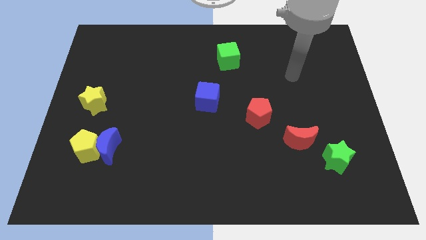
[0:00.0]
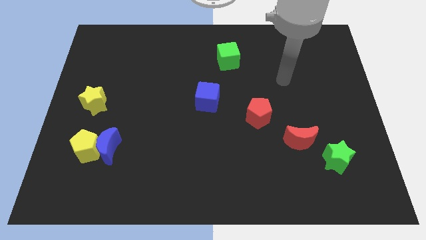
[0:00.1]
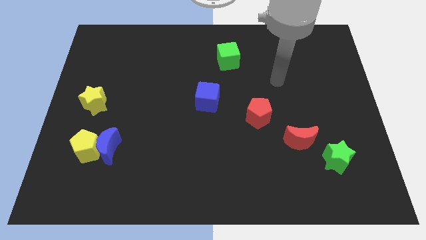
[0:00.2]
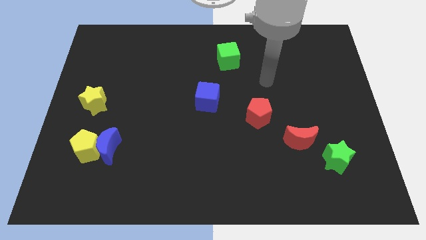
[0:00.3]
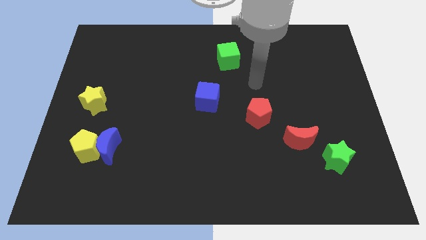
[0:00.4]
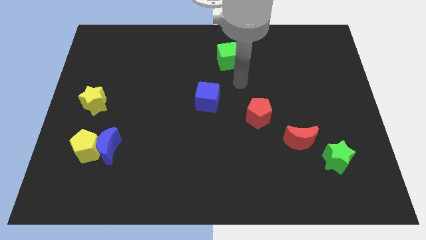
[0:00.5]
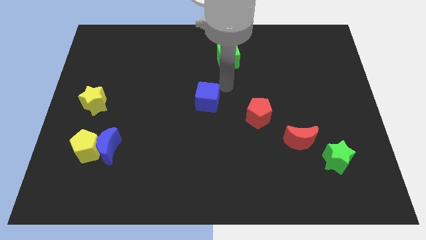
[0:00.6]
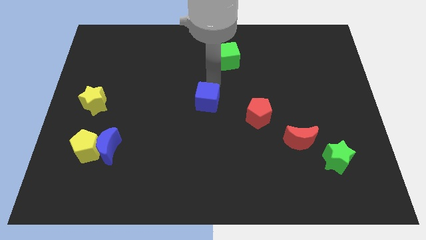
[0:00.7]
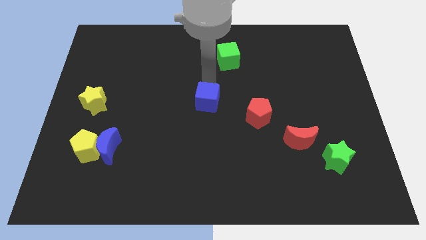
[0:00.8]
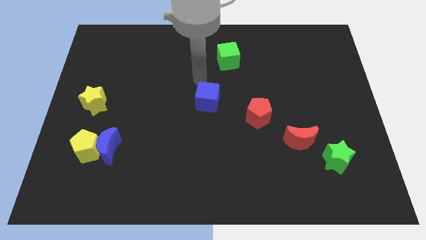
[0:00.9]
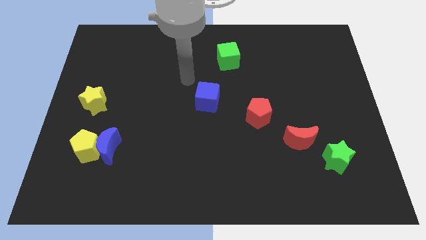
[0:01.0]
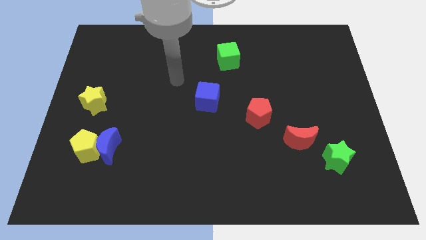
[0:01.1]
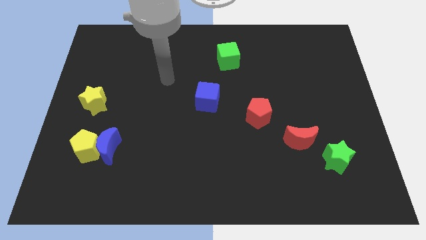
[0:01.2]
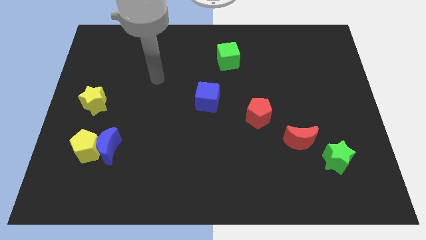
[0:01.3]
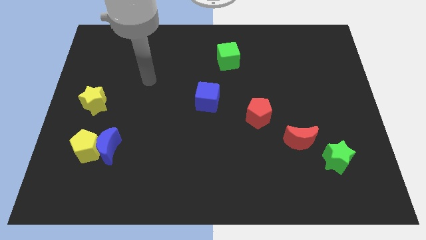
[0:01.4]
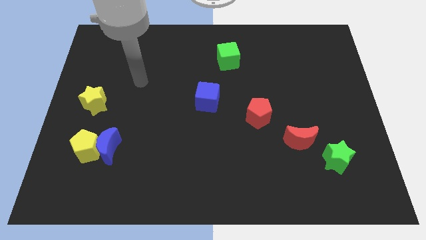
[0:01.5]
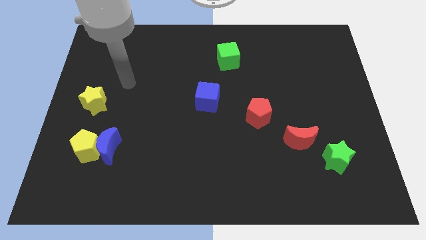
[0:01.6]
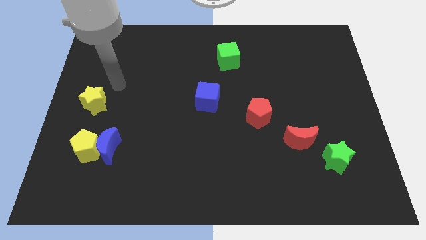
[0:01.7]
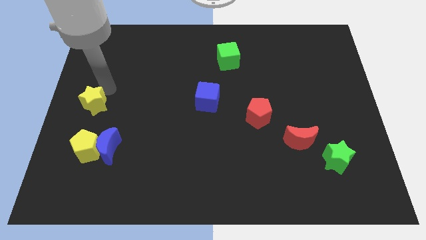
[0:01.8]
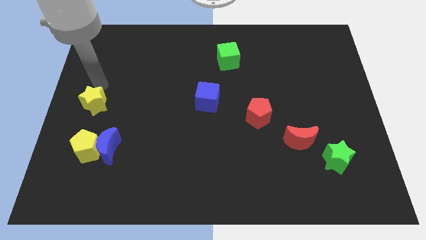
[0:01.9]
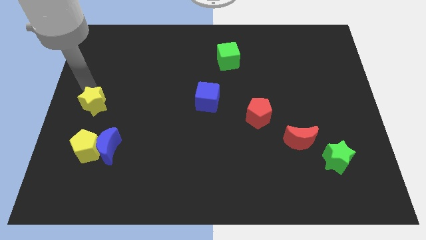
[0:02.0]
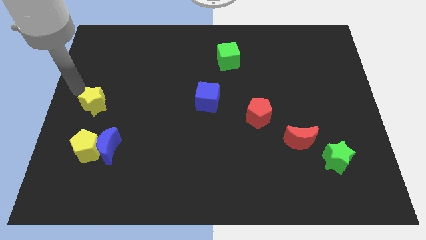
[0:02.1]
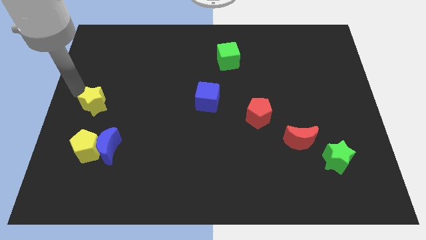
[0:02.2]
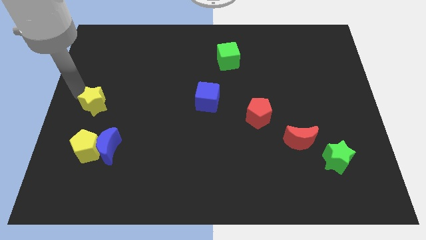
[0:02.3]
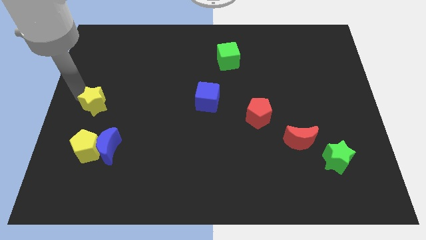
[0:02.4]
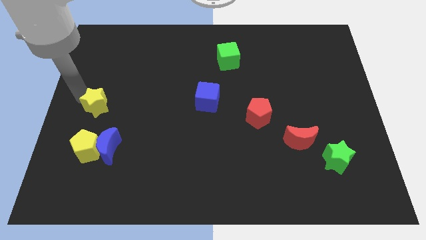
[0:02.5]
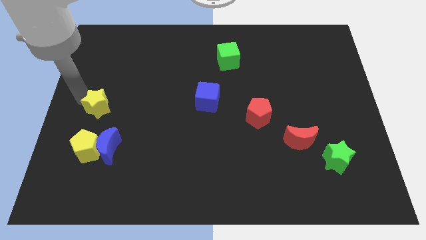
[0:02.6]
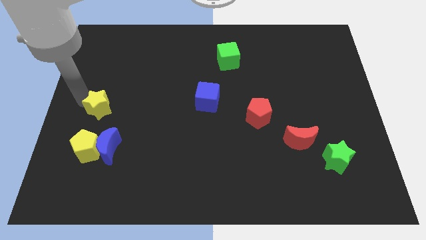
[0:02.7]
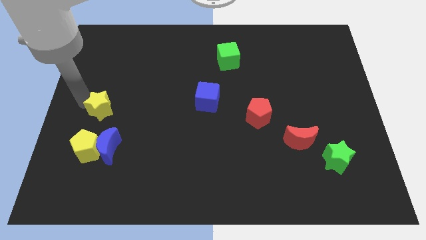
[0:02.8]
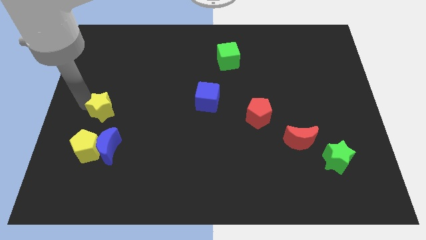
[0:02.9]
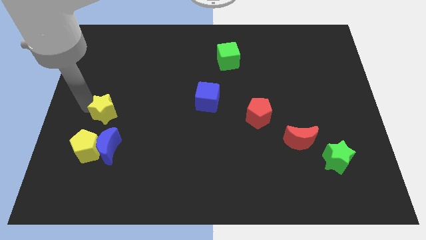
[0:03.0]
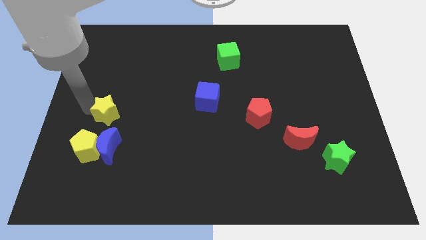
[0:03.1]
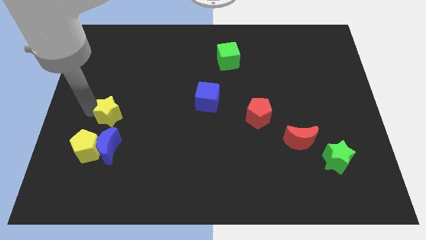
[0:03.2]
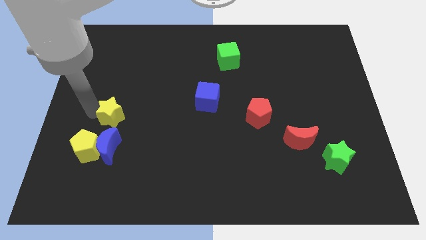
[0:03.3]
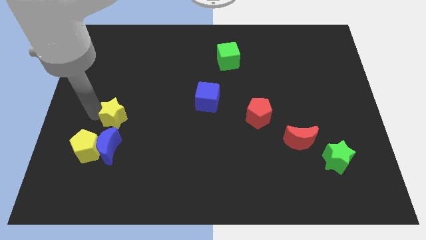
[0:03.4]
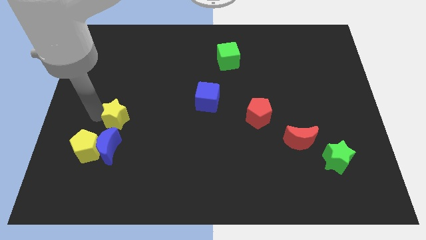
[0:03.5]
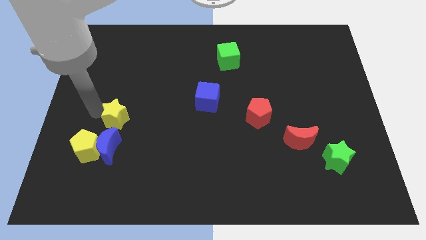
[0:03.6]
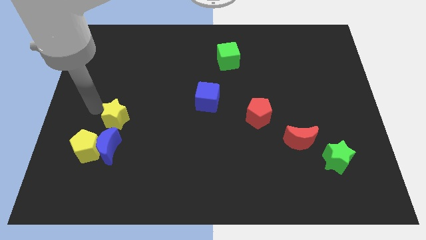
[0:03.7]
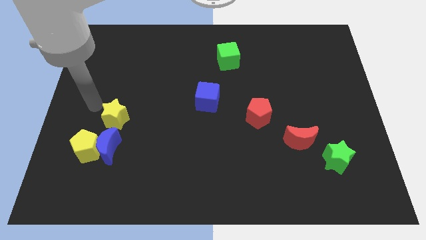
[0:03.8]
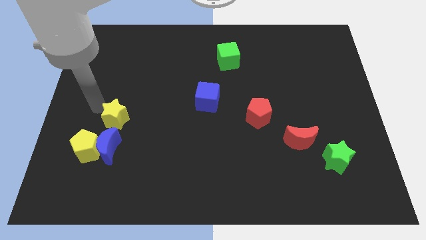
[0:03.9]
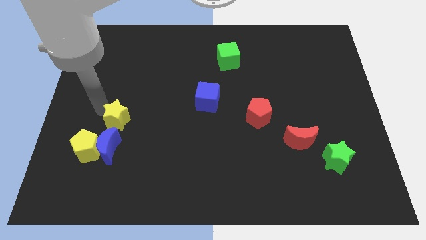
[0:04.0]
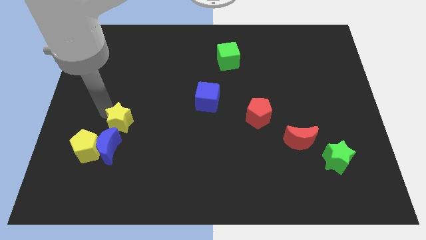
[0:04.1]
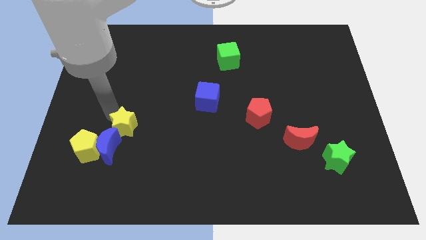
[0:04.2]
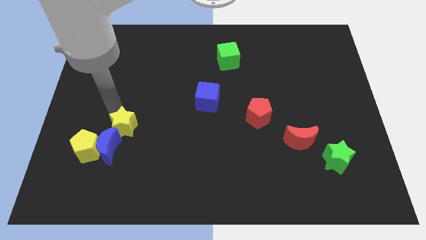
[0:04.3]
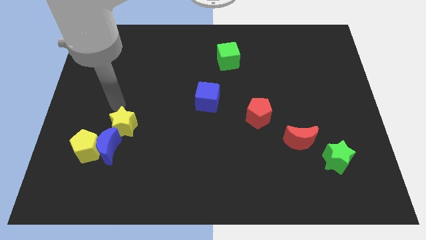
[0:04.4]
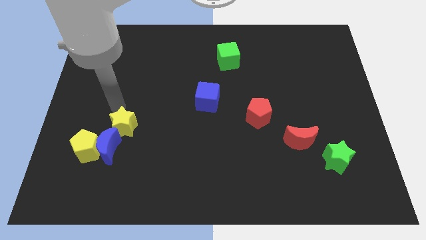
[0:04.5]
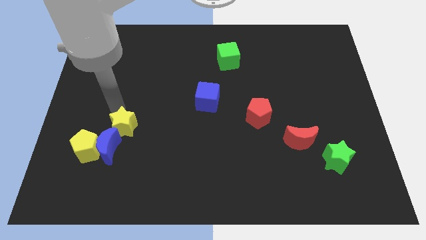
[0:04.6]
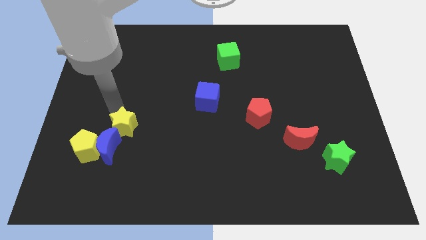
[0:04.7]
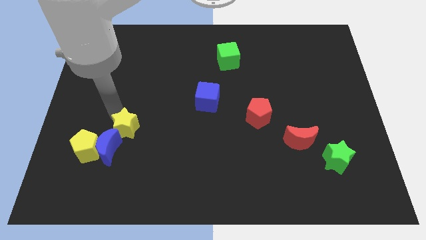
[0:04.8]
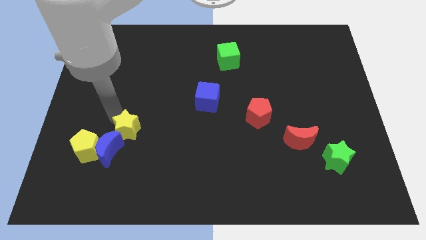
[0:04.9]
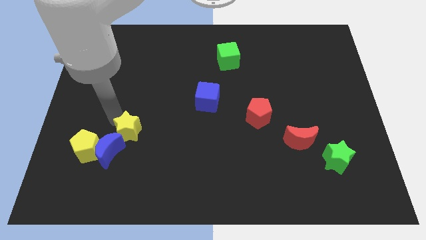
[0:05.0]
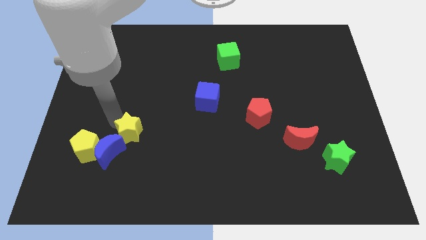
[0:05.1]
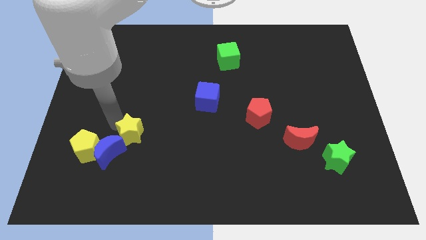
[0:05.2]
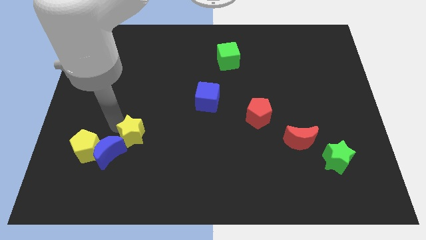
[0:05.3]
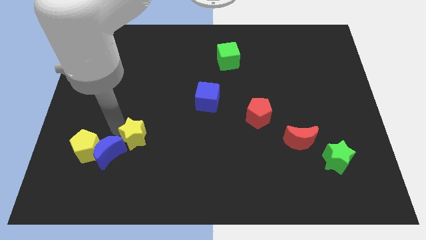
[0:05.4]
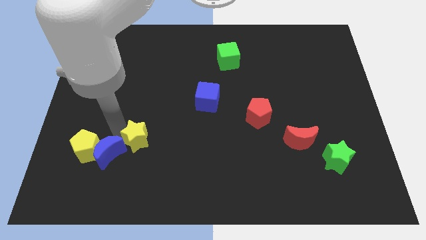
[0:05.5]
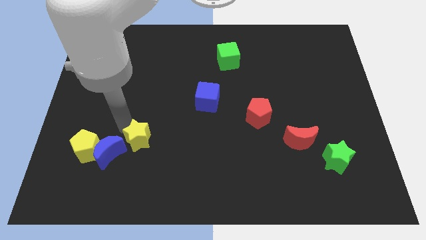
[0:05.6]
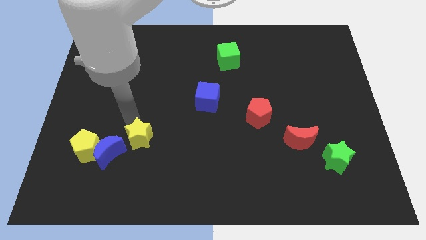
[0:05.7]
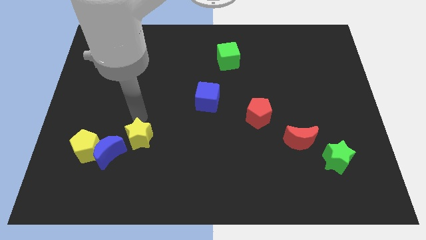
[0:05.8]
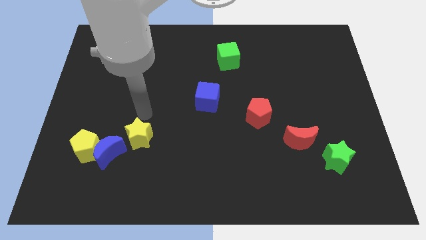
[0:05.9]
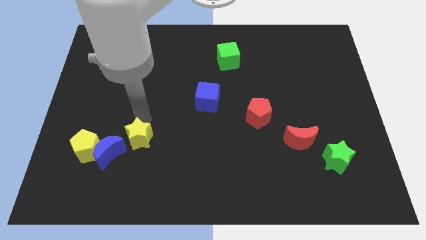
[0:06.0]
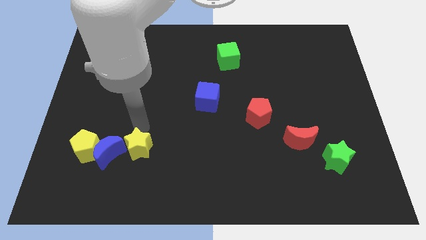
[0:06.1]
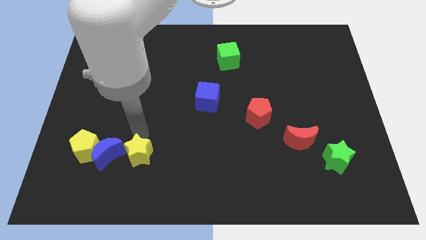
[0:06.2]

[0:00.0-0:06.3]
push the yellow star to the bottom right of the blue moon
